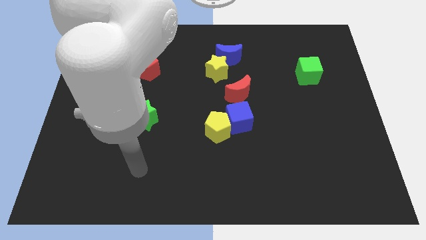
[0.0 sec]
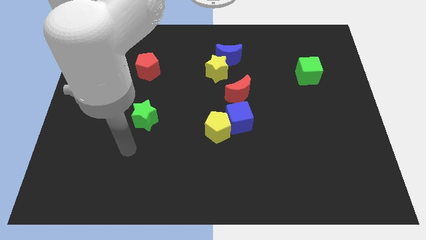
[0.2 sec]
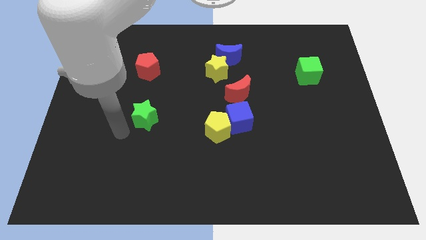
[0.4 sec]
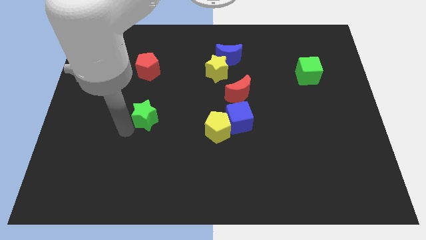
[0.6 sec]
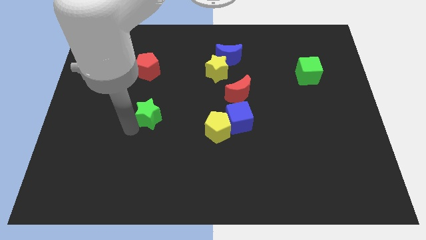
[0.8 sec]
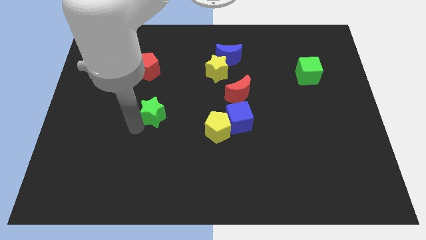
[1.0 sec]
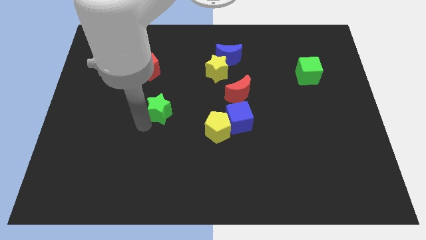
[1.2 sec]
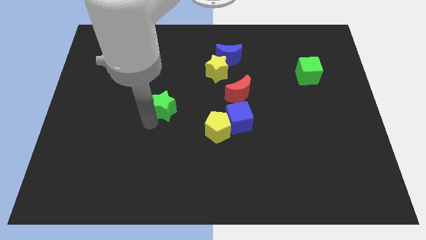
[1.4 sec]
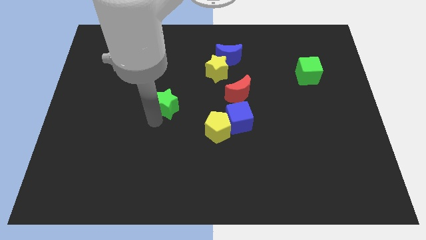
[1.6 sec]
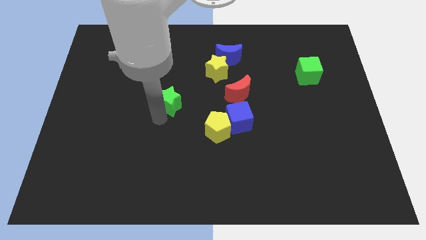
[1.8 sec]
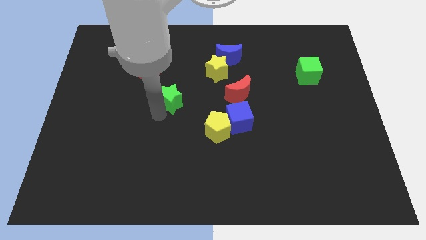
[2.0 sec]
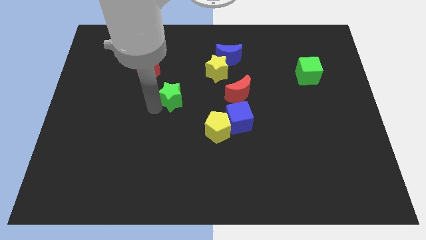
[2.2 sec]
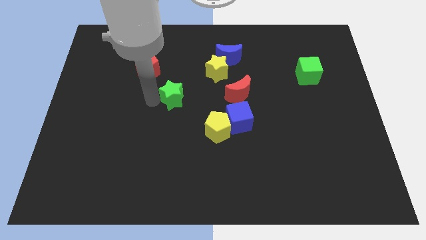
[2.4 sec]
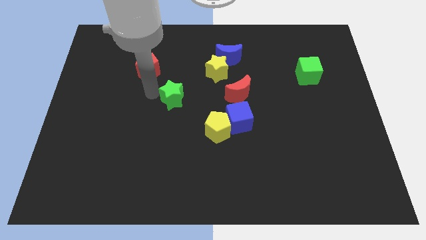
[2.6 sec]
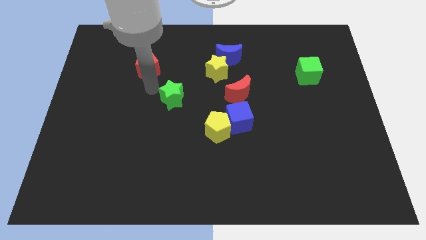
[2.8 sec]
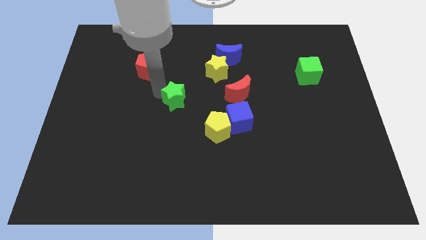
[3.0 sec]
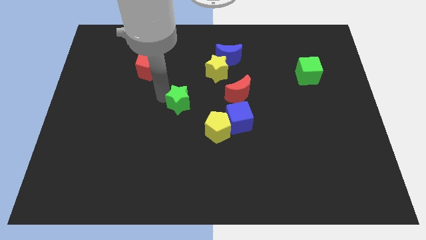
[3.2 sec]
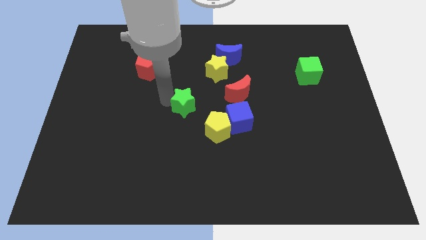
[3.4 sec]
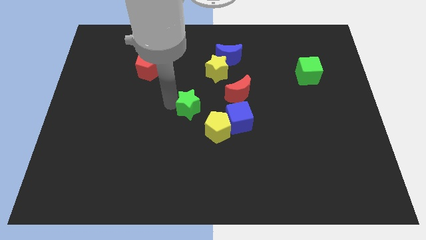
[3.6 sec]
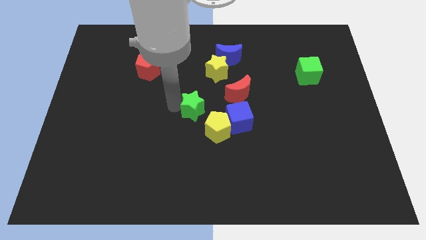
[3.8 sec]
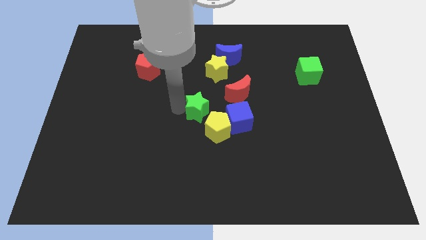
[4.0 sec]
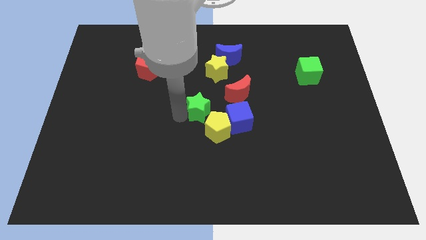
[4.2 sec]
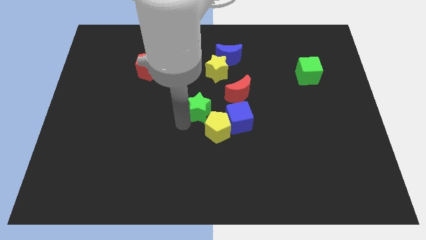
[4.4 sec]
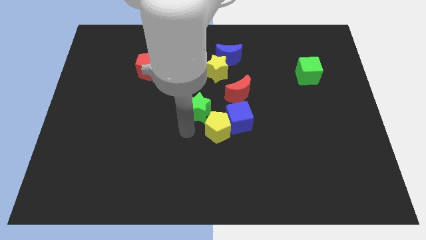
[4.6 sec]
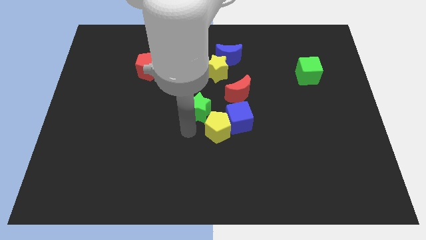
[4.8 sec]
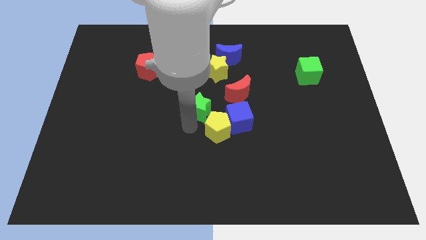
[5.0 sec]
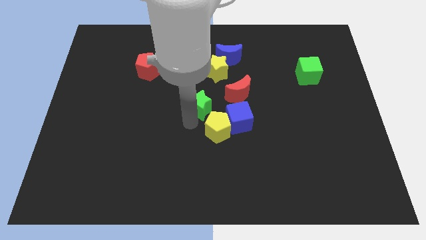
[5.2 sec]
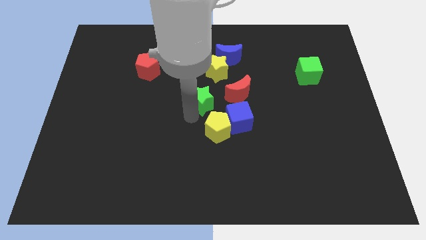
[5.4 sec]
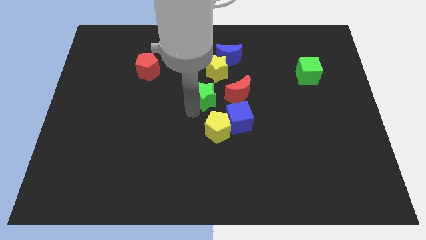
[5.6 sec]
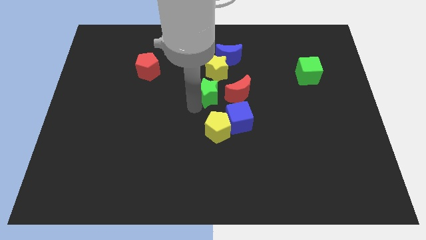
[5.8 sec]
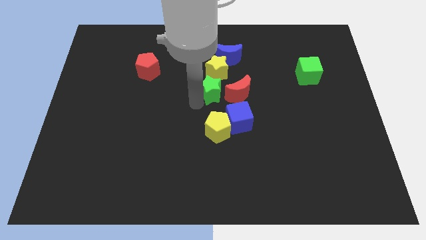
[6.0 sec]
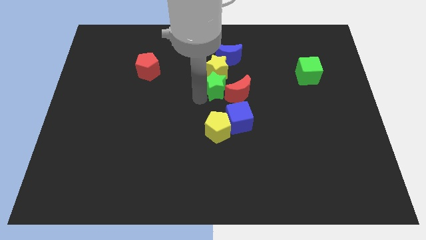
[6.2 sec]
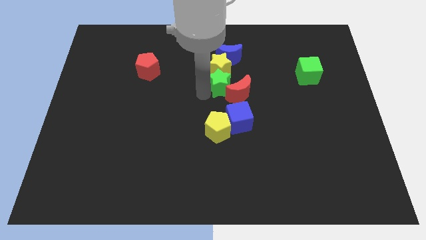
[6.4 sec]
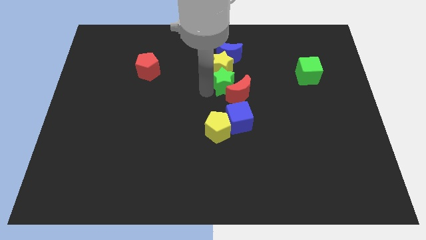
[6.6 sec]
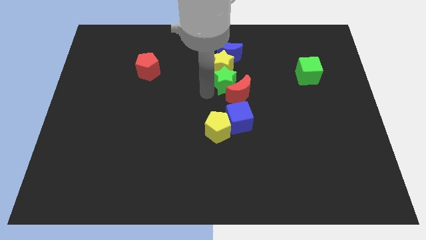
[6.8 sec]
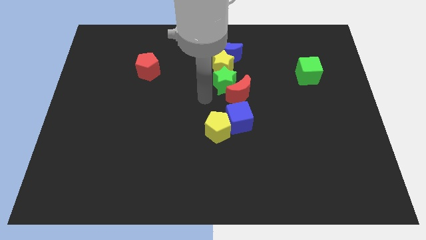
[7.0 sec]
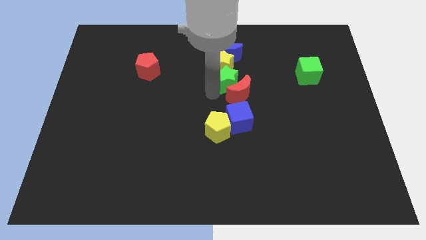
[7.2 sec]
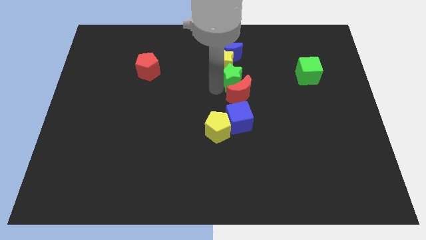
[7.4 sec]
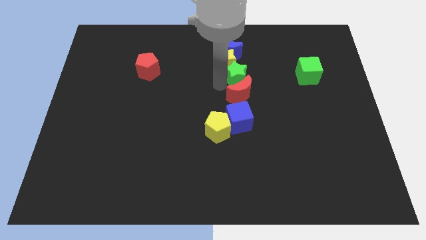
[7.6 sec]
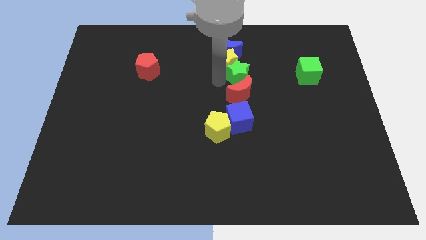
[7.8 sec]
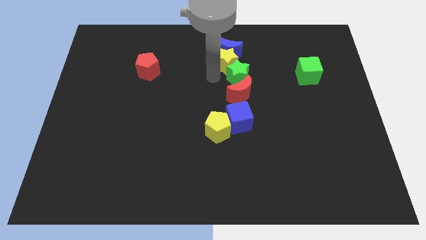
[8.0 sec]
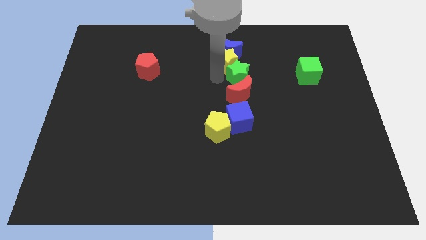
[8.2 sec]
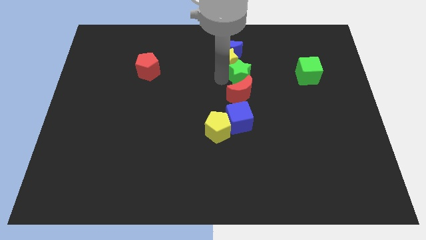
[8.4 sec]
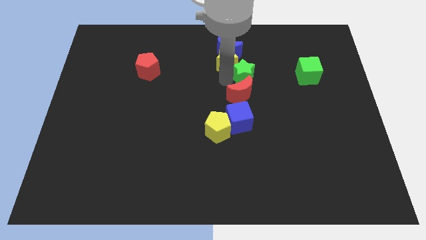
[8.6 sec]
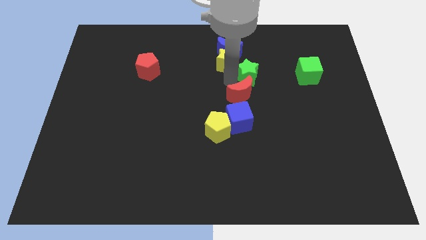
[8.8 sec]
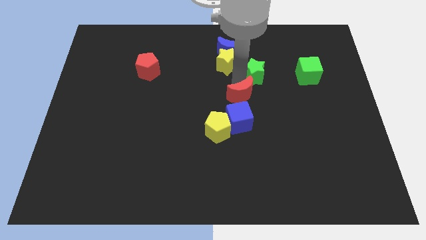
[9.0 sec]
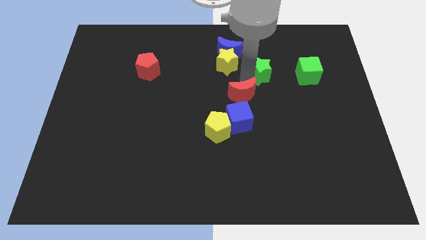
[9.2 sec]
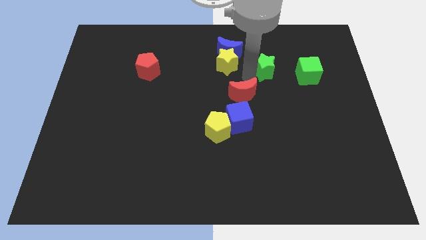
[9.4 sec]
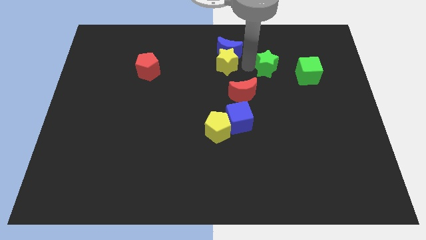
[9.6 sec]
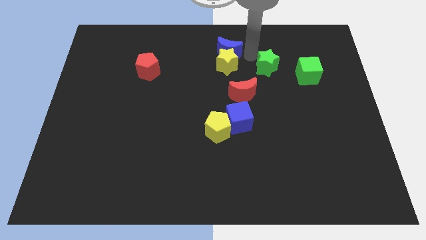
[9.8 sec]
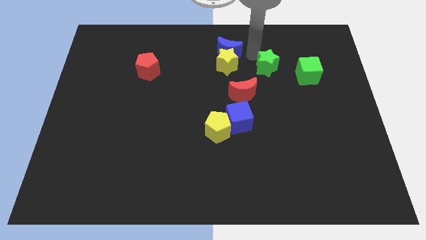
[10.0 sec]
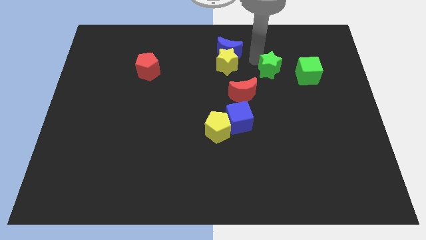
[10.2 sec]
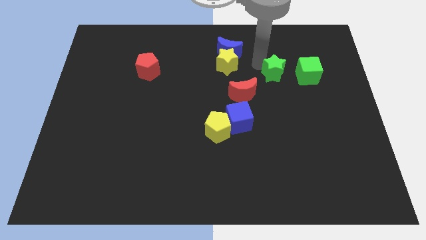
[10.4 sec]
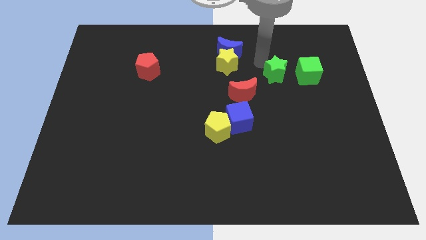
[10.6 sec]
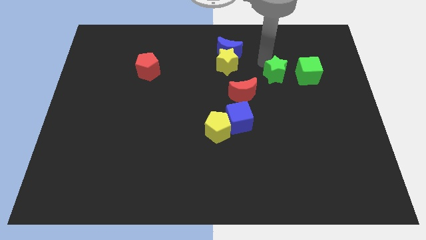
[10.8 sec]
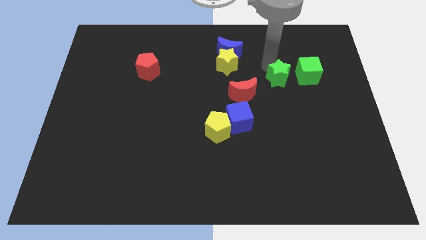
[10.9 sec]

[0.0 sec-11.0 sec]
put the green star to the bottom left side of the green cube
